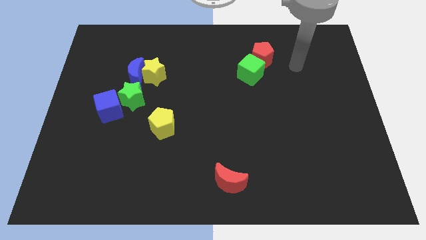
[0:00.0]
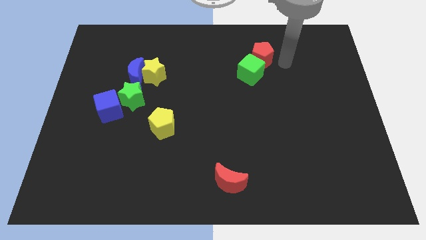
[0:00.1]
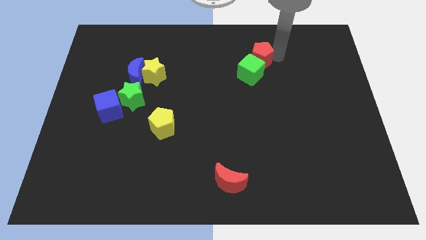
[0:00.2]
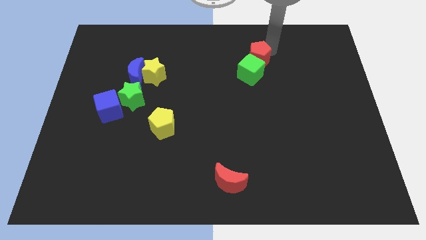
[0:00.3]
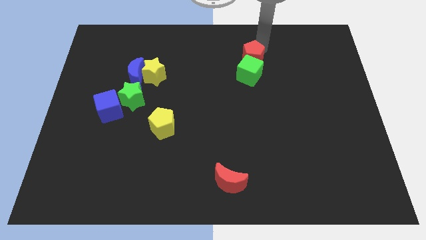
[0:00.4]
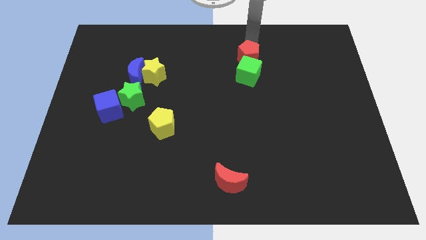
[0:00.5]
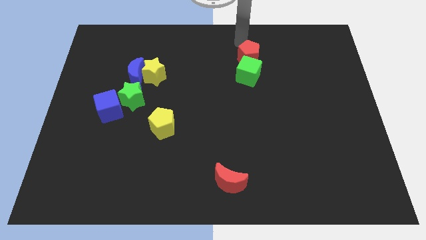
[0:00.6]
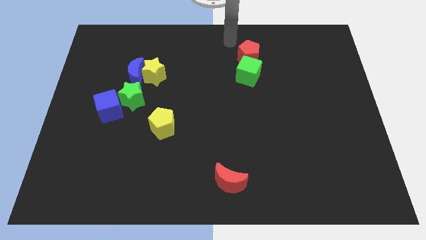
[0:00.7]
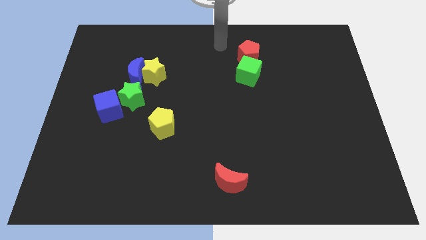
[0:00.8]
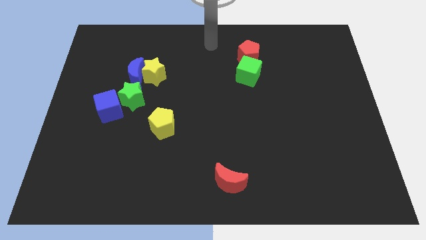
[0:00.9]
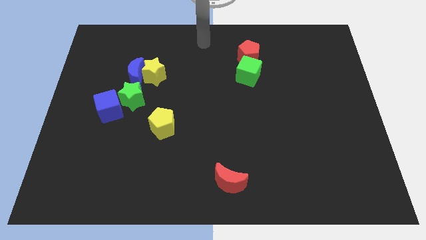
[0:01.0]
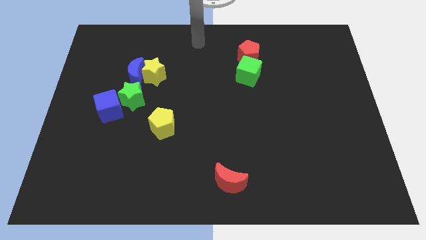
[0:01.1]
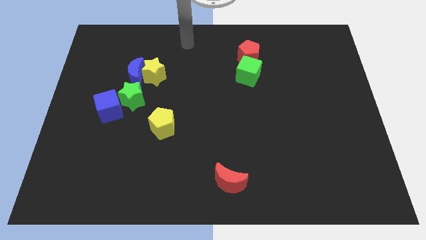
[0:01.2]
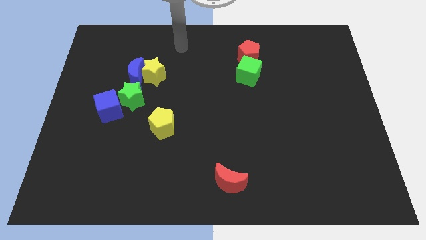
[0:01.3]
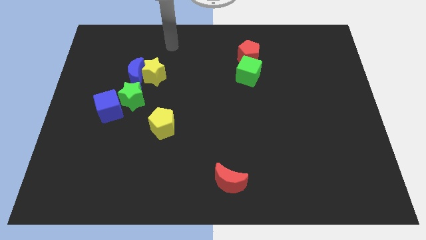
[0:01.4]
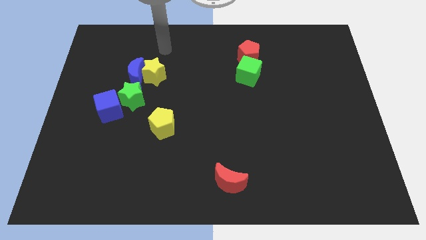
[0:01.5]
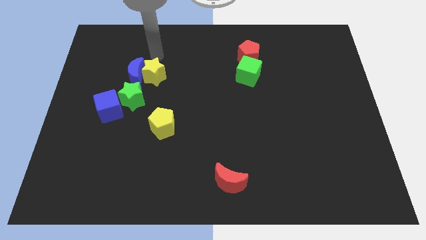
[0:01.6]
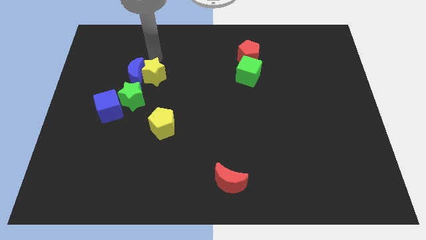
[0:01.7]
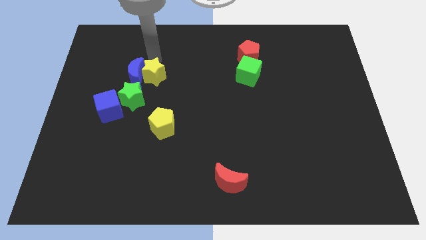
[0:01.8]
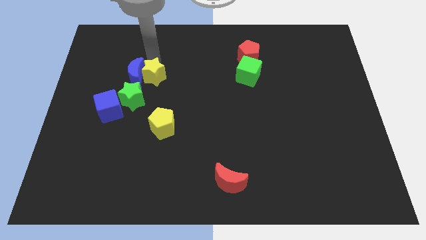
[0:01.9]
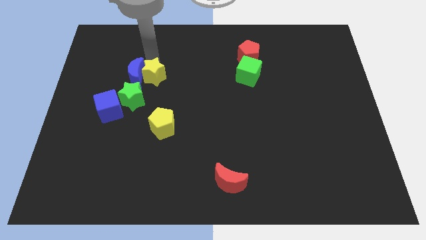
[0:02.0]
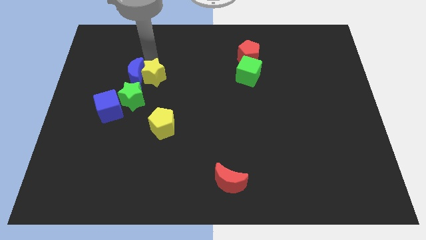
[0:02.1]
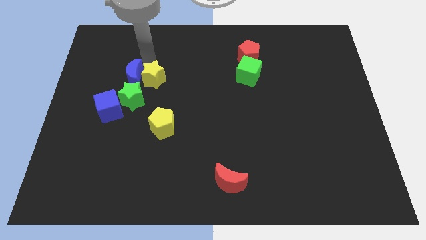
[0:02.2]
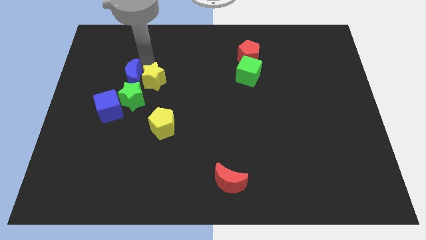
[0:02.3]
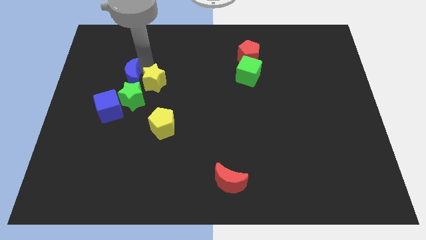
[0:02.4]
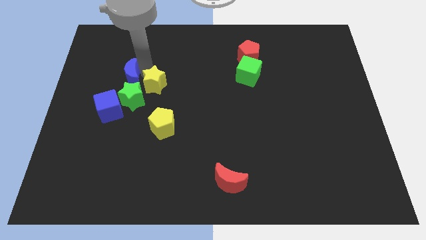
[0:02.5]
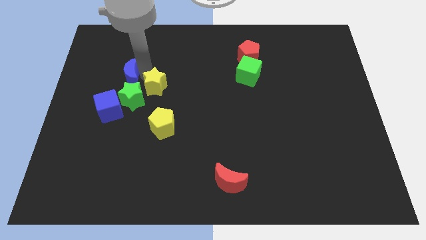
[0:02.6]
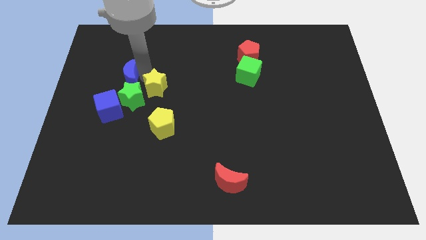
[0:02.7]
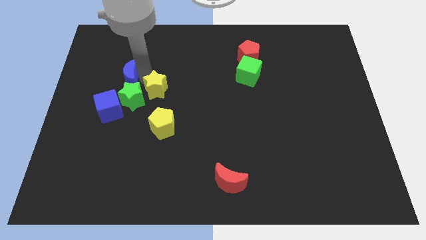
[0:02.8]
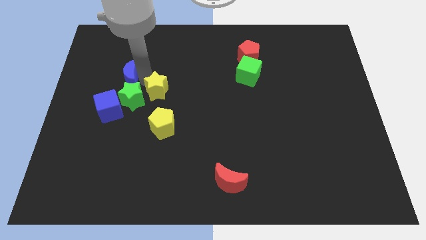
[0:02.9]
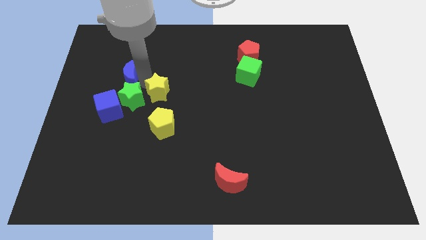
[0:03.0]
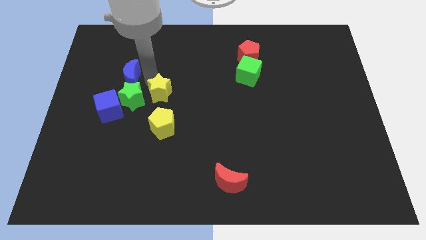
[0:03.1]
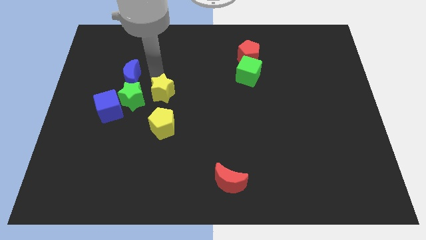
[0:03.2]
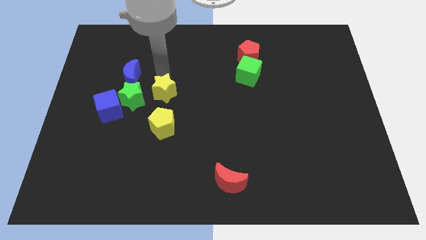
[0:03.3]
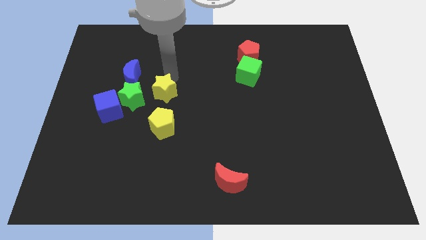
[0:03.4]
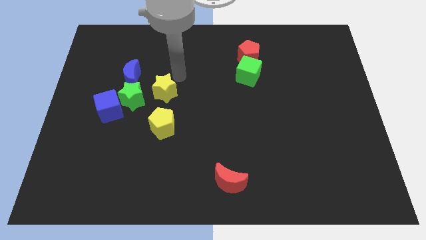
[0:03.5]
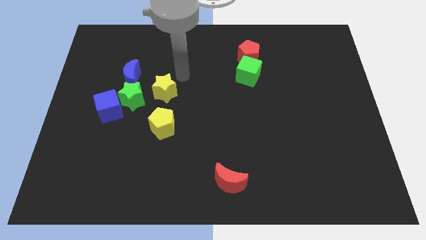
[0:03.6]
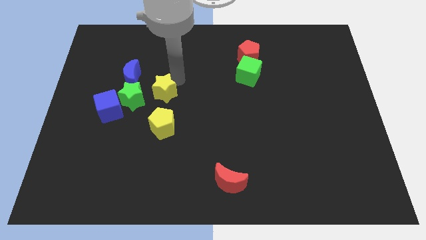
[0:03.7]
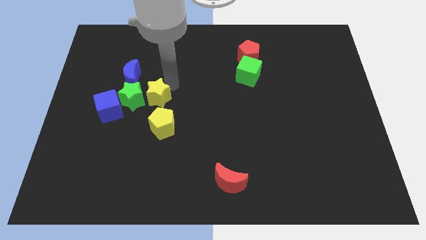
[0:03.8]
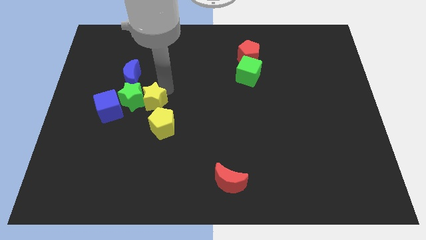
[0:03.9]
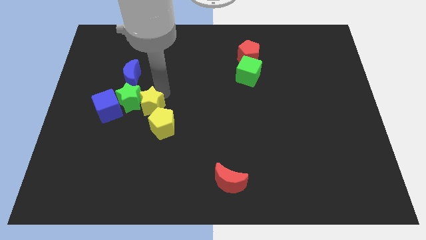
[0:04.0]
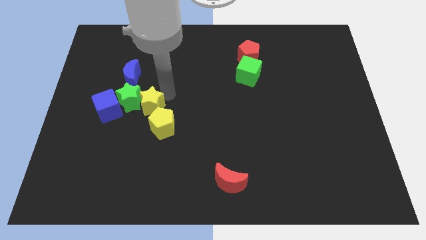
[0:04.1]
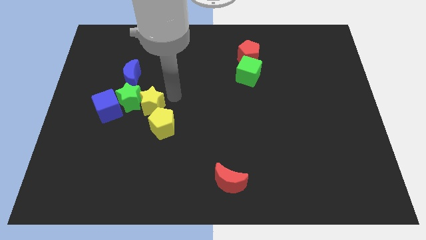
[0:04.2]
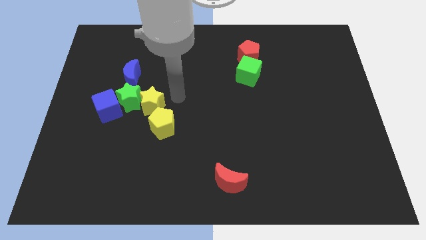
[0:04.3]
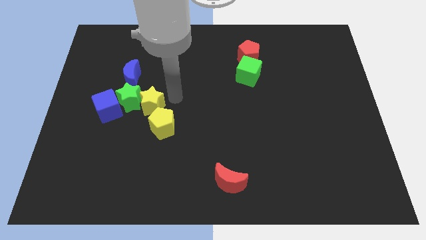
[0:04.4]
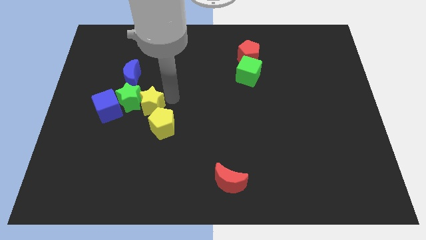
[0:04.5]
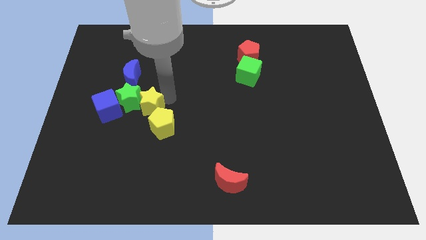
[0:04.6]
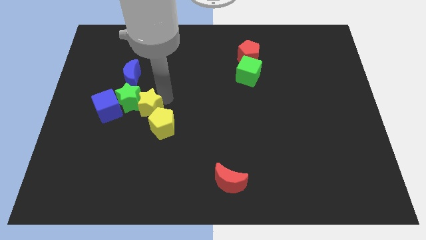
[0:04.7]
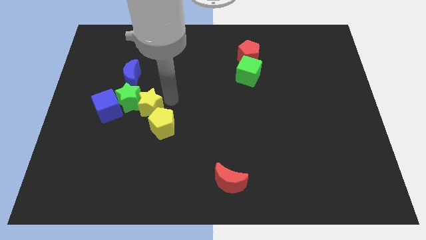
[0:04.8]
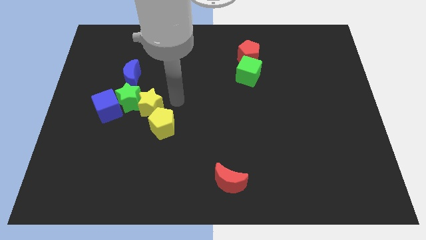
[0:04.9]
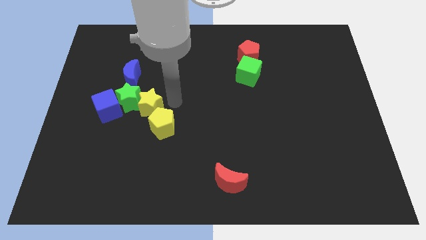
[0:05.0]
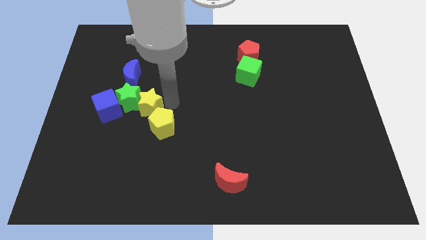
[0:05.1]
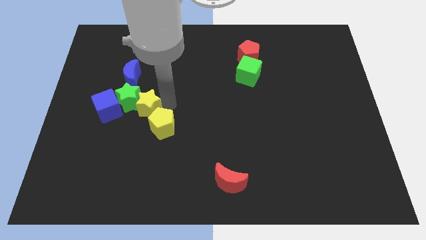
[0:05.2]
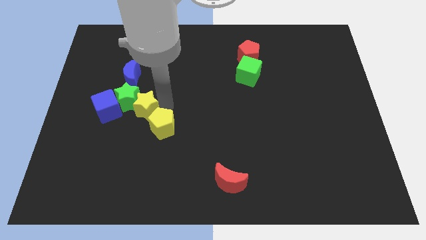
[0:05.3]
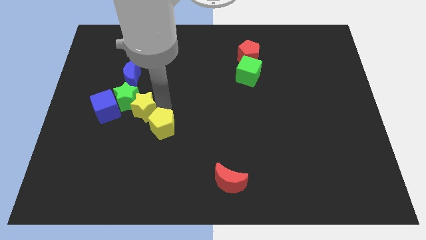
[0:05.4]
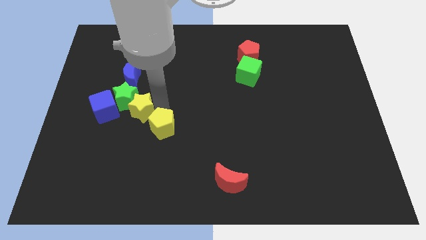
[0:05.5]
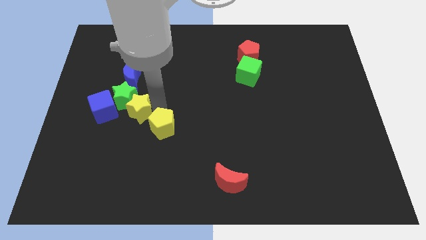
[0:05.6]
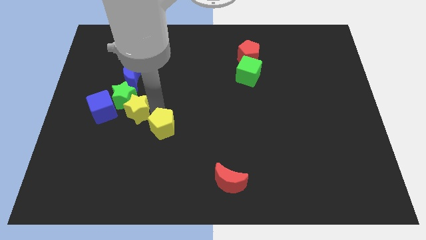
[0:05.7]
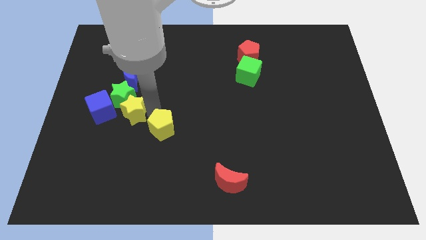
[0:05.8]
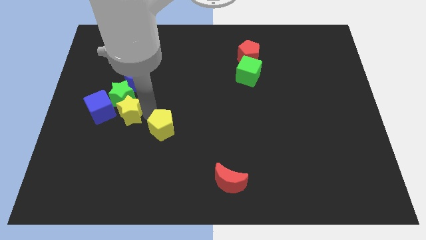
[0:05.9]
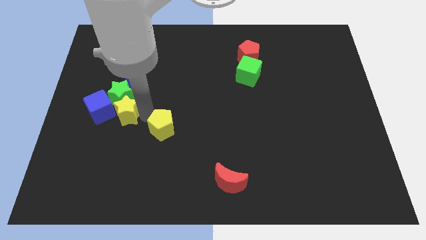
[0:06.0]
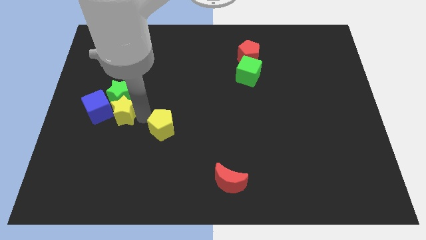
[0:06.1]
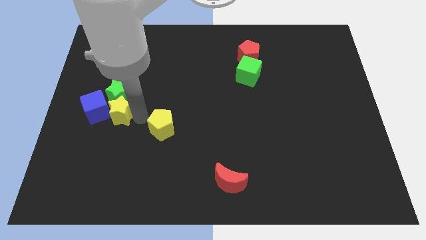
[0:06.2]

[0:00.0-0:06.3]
put the yellow star next to the blue cube

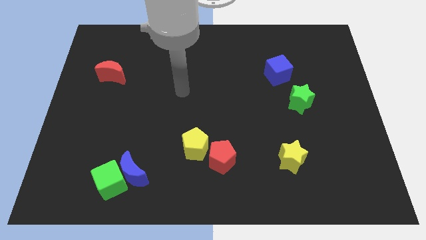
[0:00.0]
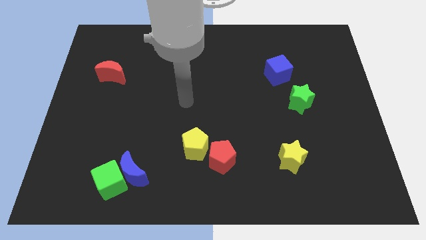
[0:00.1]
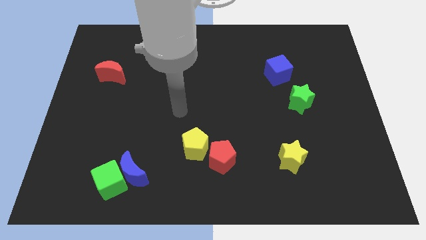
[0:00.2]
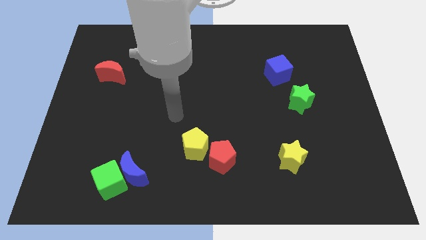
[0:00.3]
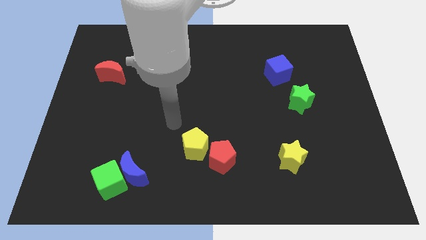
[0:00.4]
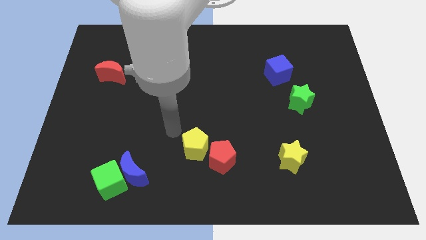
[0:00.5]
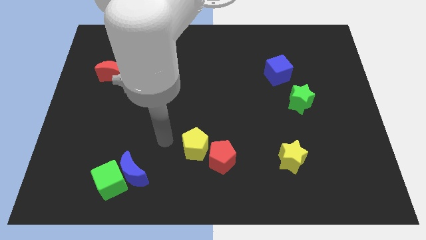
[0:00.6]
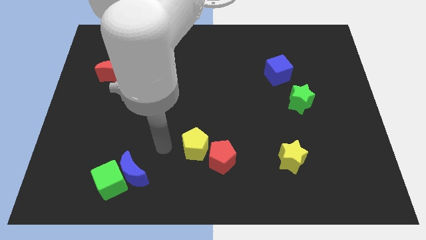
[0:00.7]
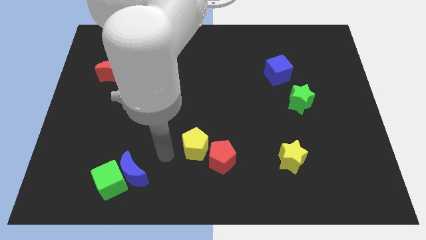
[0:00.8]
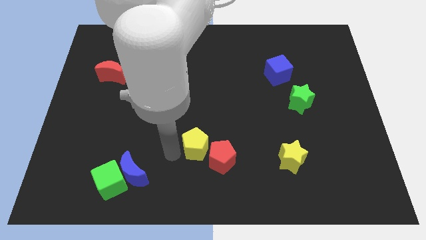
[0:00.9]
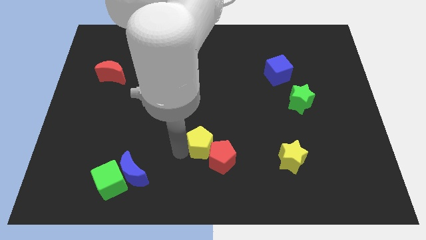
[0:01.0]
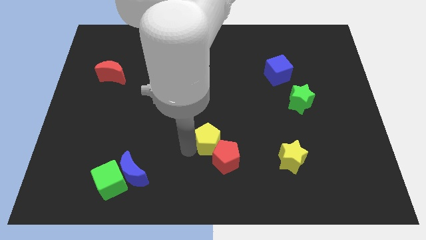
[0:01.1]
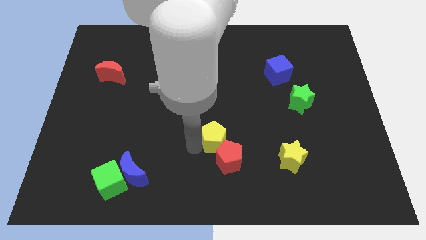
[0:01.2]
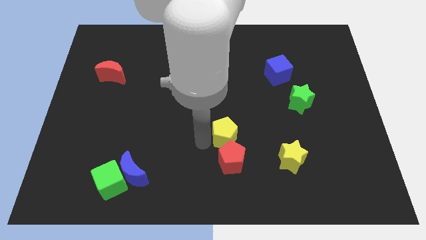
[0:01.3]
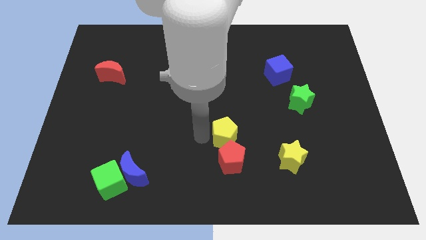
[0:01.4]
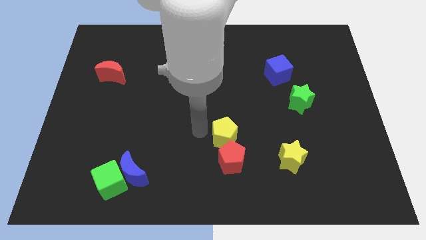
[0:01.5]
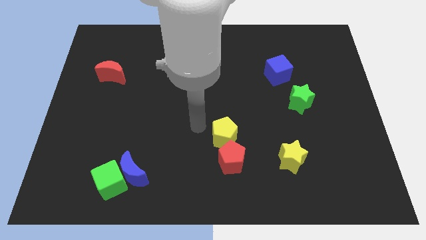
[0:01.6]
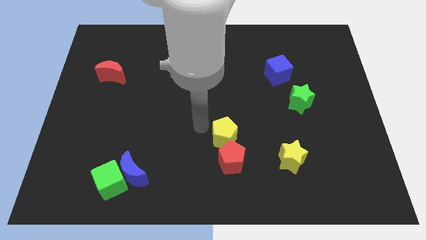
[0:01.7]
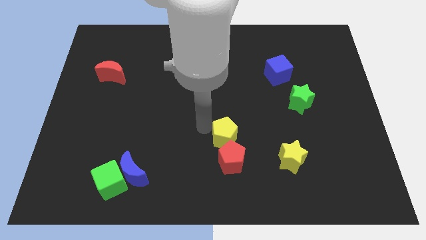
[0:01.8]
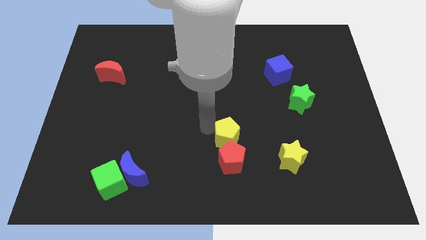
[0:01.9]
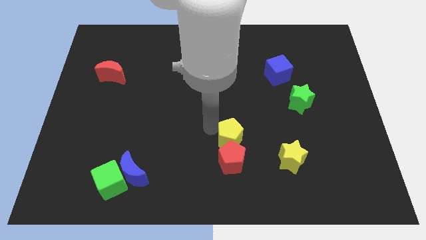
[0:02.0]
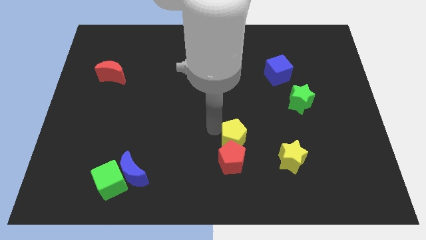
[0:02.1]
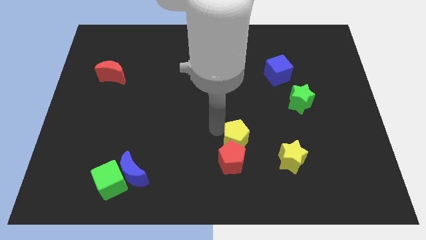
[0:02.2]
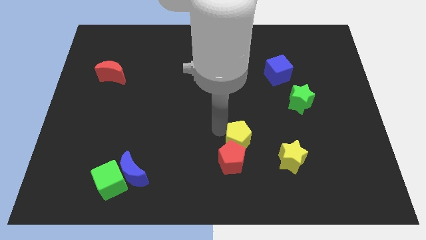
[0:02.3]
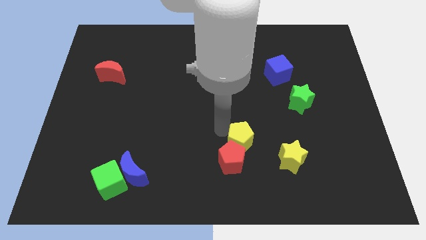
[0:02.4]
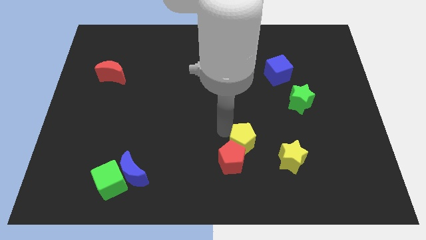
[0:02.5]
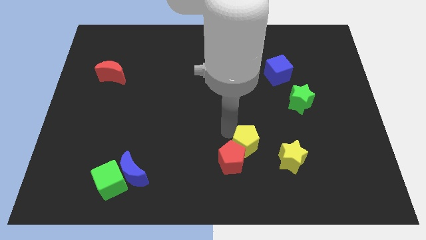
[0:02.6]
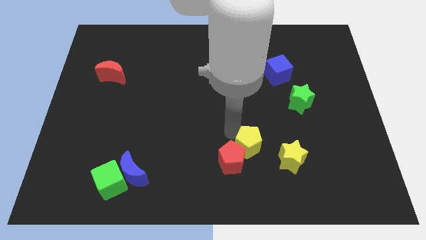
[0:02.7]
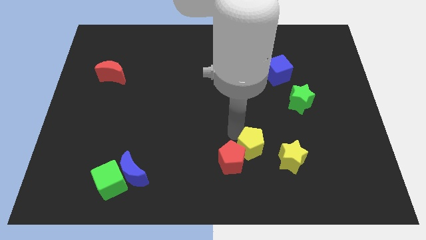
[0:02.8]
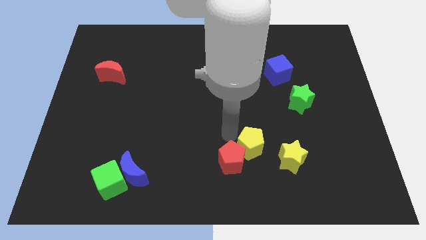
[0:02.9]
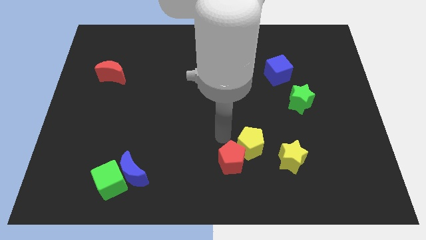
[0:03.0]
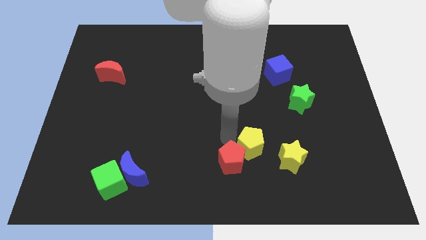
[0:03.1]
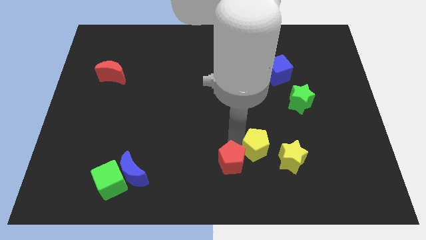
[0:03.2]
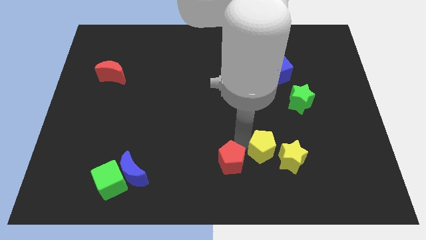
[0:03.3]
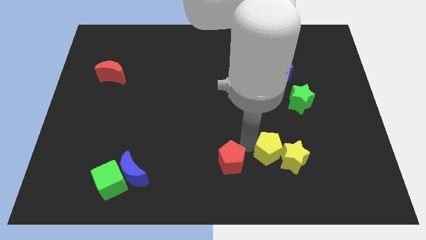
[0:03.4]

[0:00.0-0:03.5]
push the yellow pentagon to the yellow star
